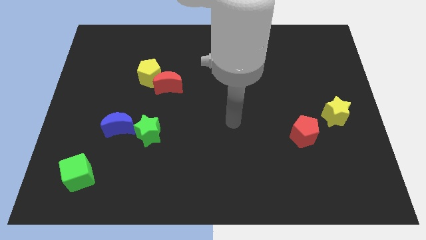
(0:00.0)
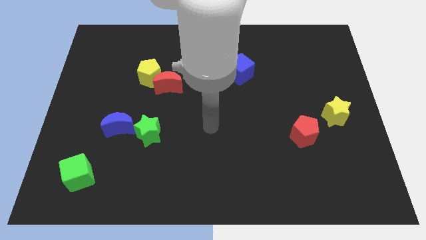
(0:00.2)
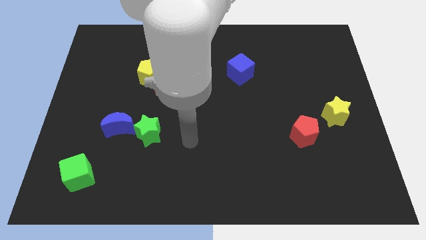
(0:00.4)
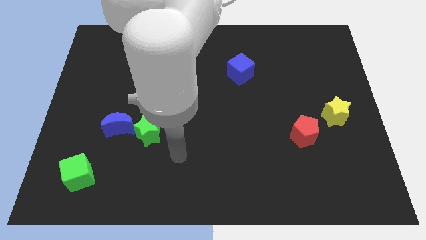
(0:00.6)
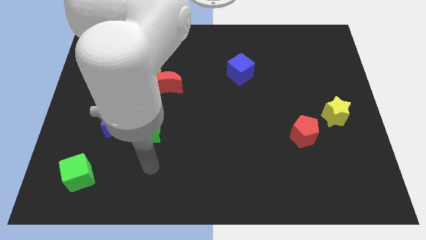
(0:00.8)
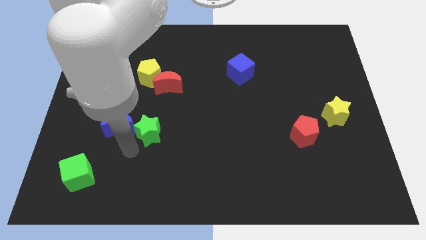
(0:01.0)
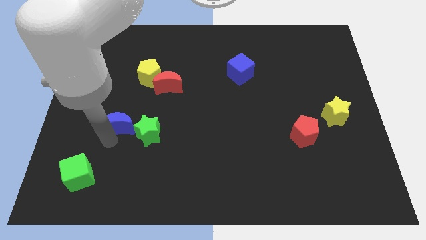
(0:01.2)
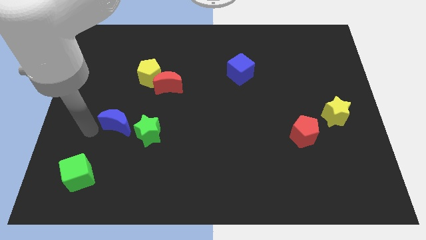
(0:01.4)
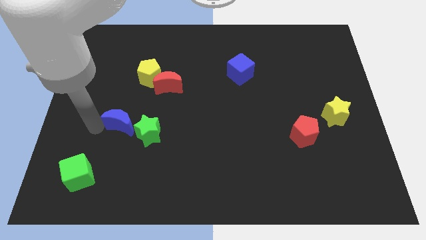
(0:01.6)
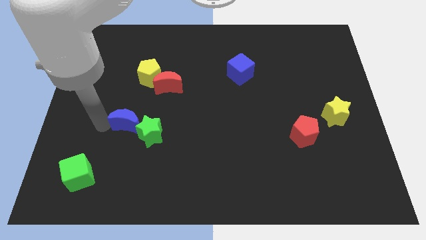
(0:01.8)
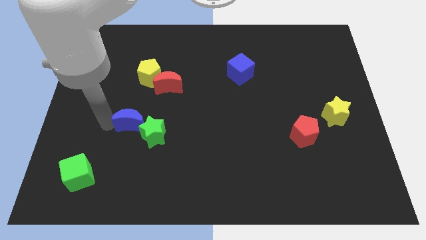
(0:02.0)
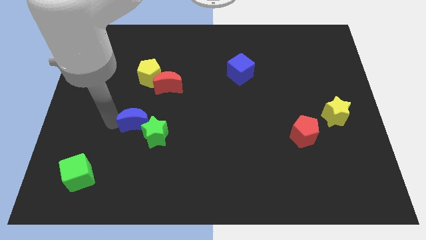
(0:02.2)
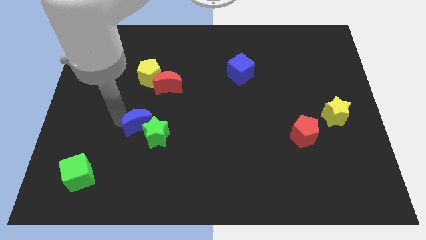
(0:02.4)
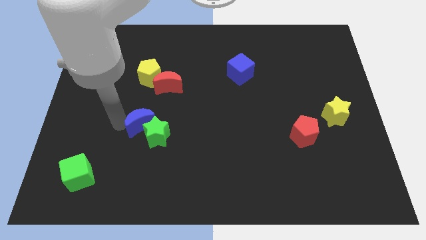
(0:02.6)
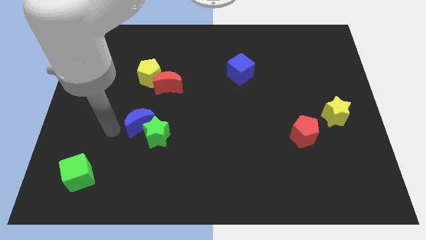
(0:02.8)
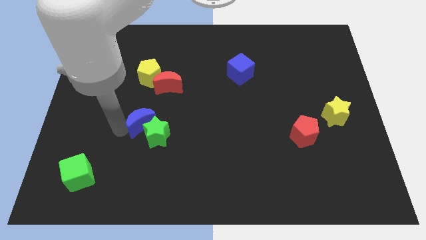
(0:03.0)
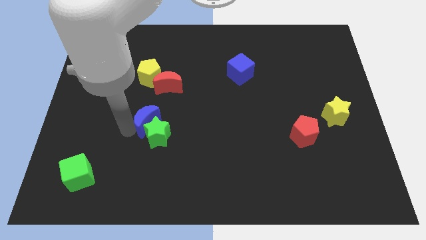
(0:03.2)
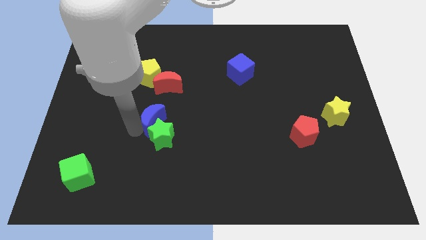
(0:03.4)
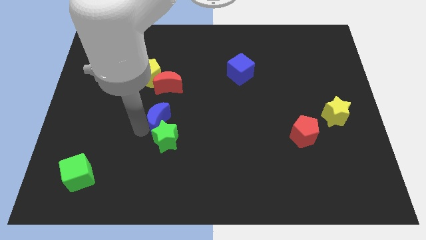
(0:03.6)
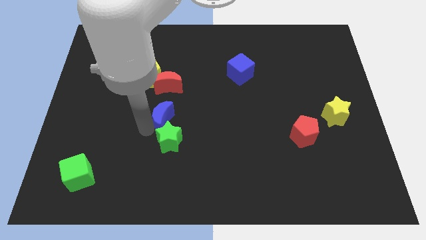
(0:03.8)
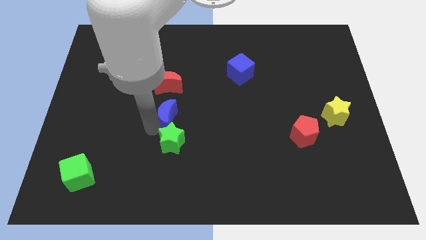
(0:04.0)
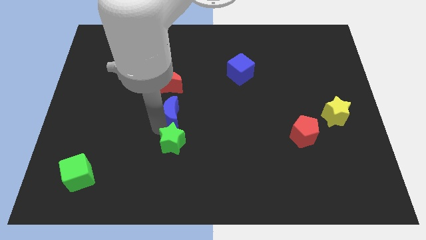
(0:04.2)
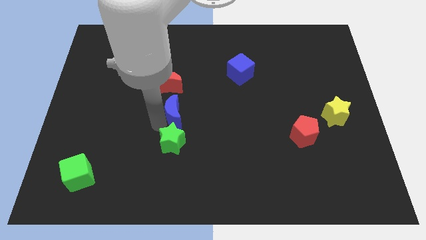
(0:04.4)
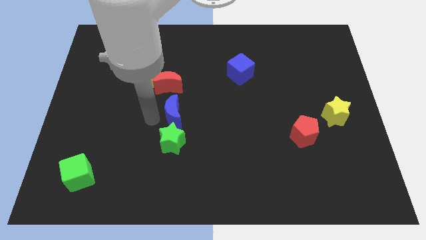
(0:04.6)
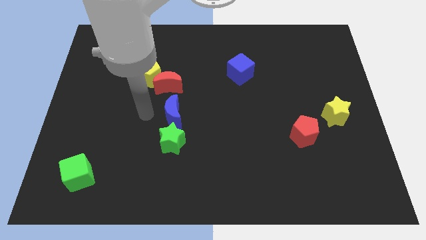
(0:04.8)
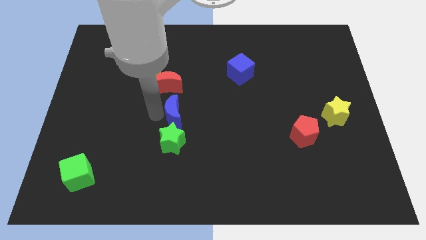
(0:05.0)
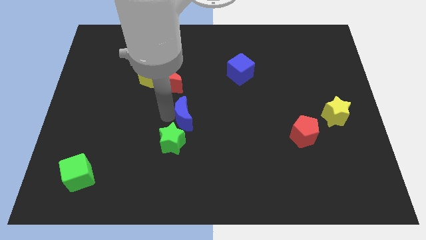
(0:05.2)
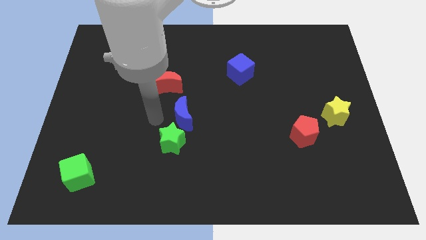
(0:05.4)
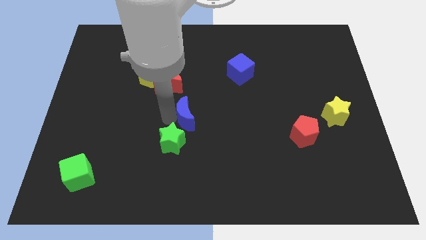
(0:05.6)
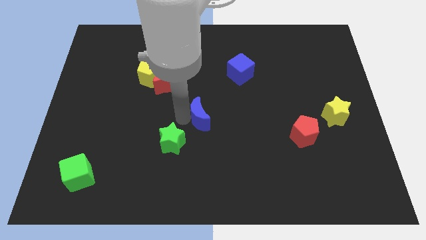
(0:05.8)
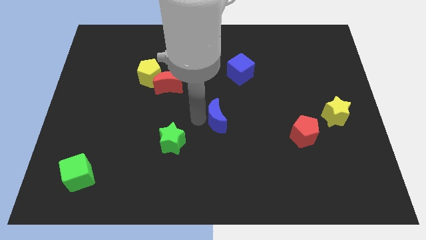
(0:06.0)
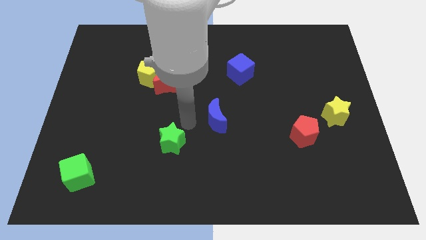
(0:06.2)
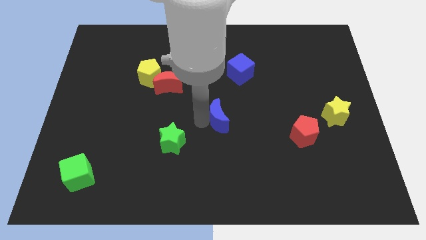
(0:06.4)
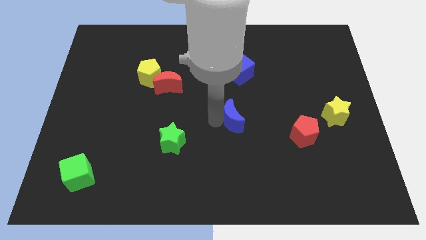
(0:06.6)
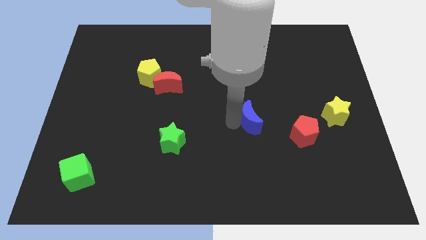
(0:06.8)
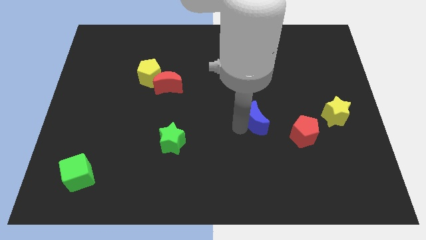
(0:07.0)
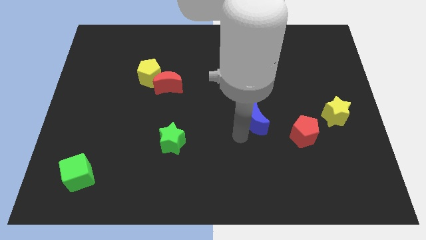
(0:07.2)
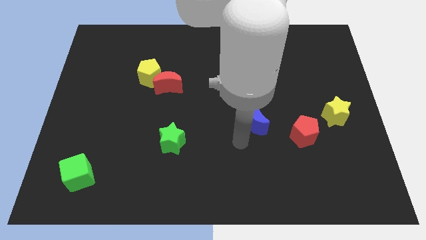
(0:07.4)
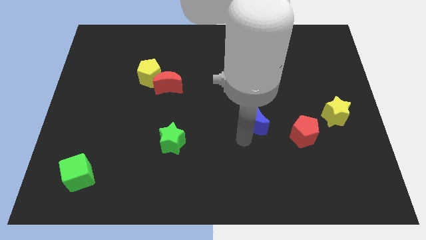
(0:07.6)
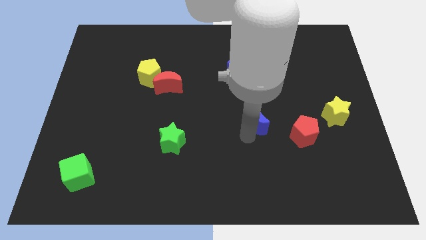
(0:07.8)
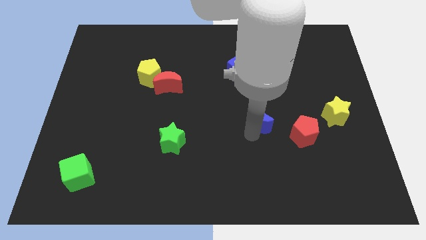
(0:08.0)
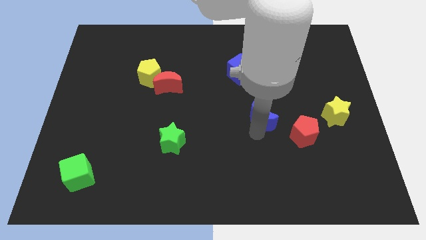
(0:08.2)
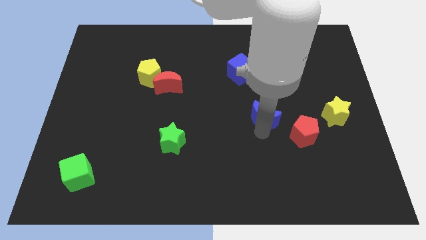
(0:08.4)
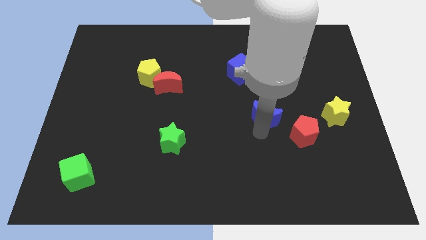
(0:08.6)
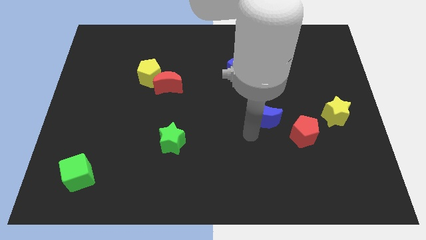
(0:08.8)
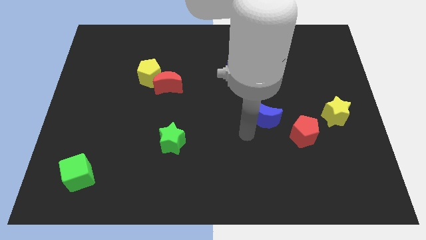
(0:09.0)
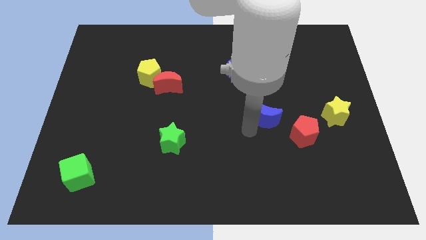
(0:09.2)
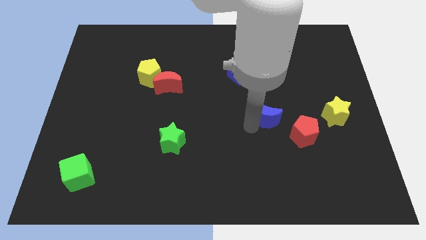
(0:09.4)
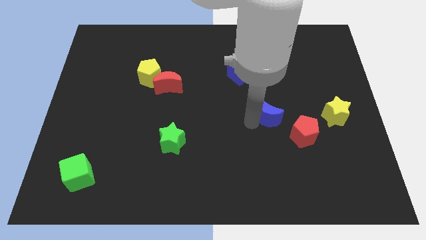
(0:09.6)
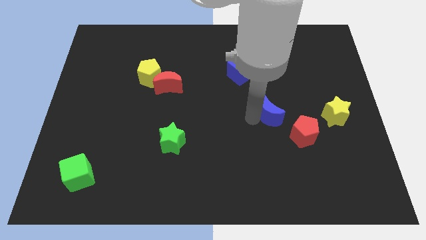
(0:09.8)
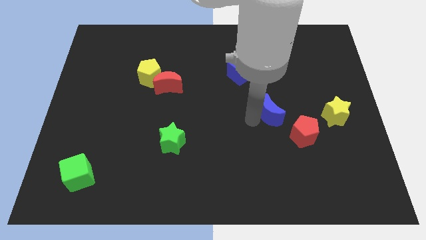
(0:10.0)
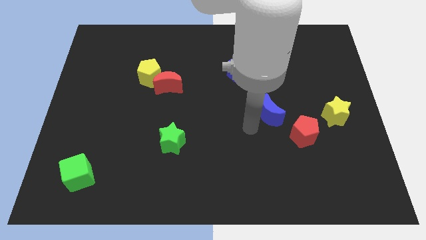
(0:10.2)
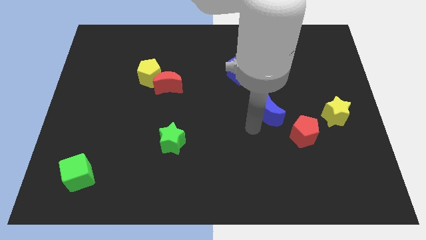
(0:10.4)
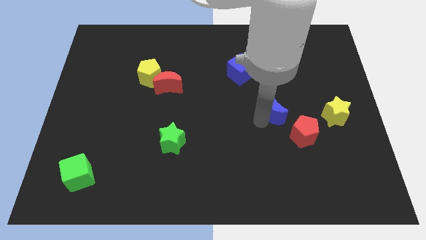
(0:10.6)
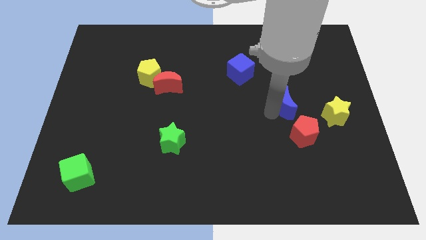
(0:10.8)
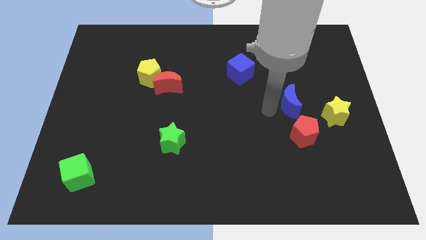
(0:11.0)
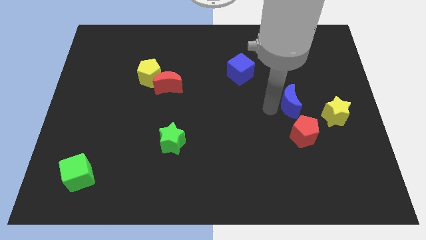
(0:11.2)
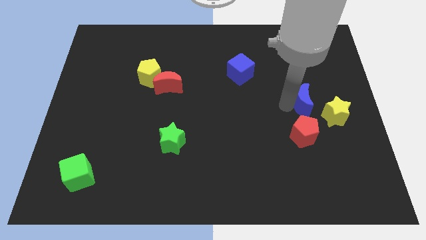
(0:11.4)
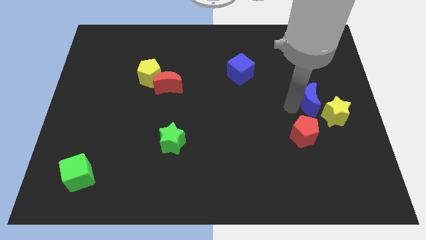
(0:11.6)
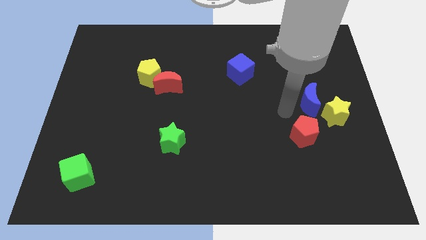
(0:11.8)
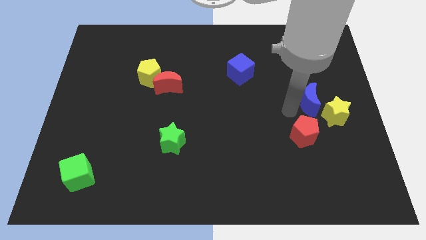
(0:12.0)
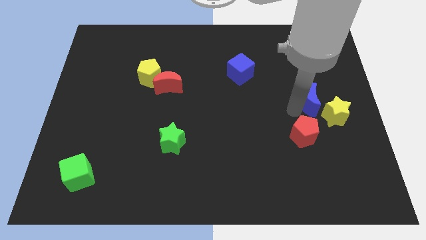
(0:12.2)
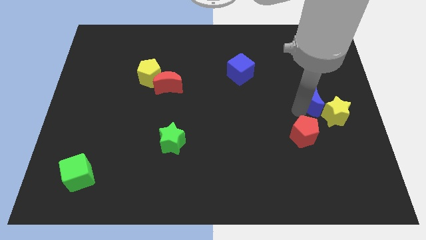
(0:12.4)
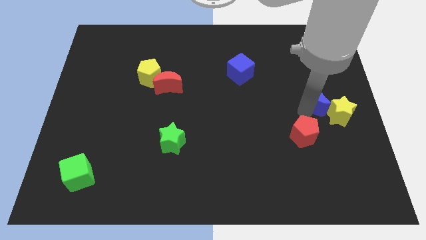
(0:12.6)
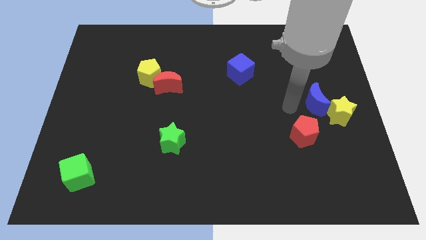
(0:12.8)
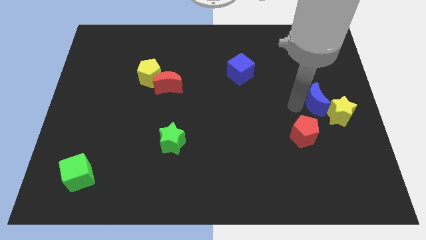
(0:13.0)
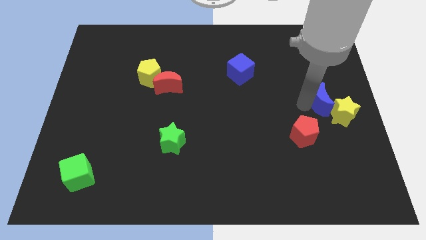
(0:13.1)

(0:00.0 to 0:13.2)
push the blue moon to the right side of the board
